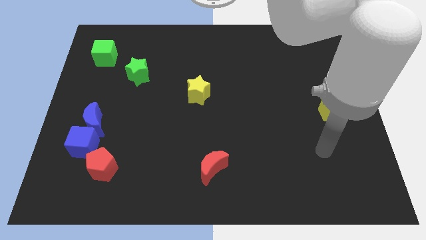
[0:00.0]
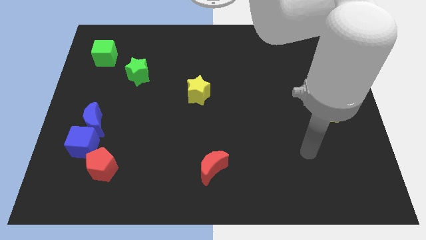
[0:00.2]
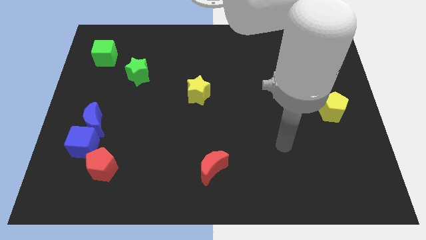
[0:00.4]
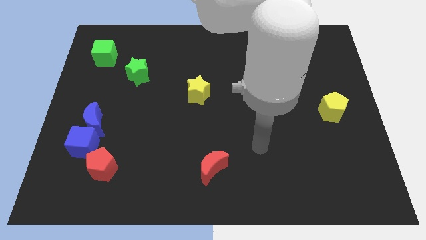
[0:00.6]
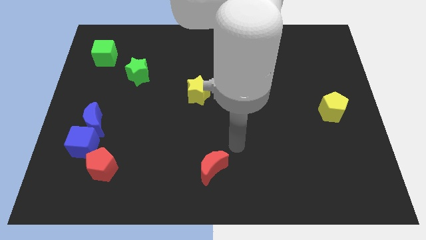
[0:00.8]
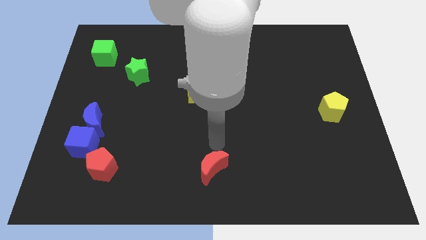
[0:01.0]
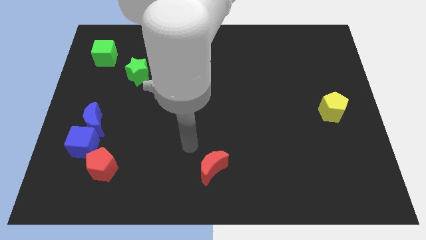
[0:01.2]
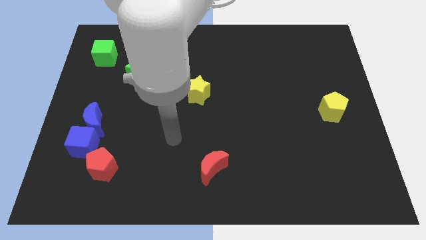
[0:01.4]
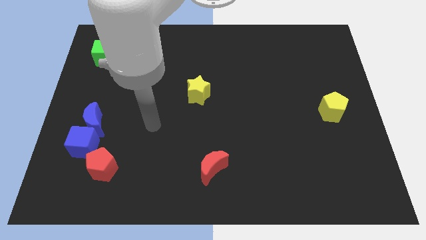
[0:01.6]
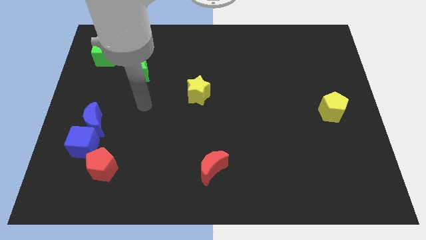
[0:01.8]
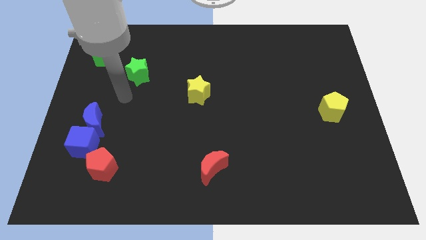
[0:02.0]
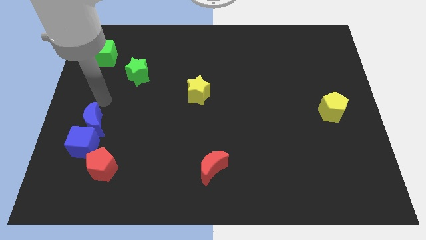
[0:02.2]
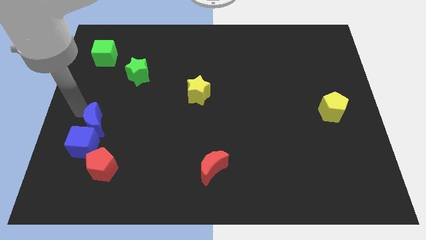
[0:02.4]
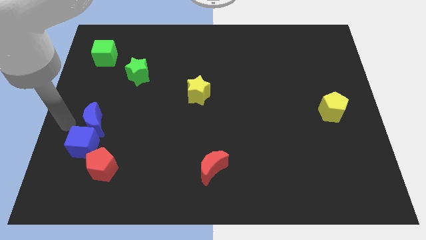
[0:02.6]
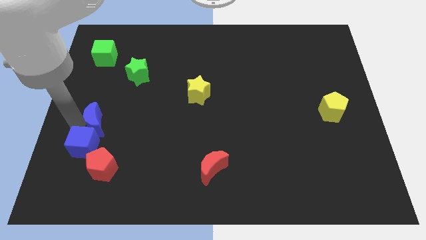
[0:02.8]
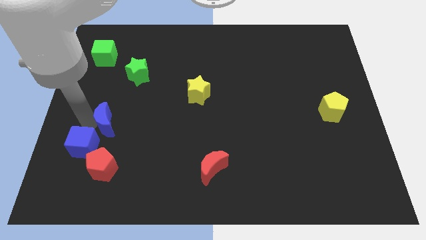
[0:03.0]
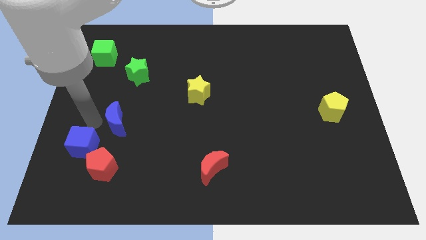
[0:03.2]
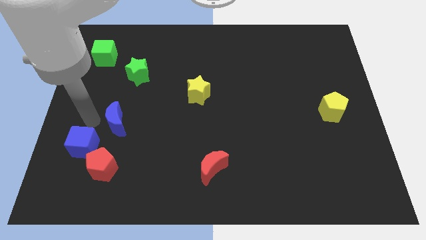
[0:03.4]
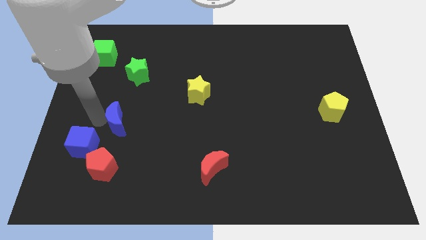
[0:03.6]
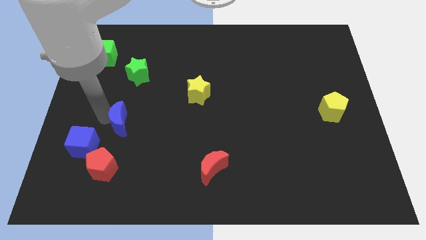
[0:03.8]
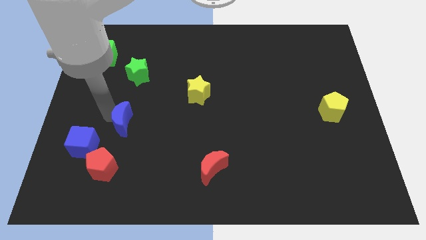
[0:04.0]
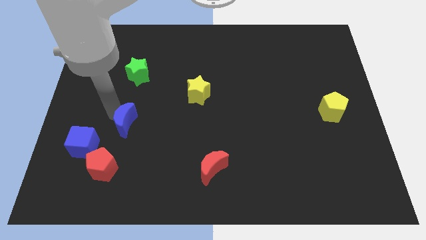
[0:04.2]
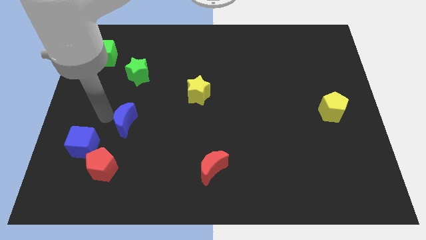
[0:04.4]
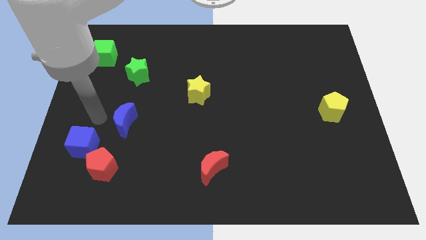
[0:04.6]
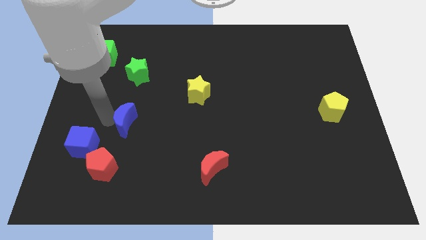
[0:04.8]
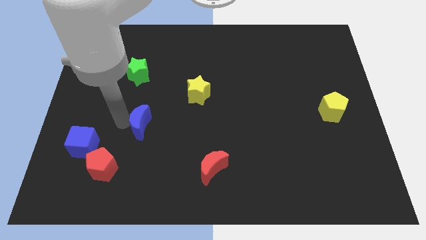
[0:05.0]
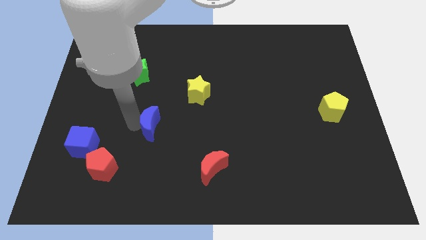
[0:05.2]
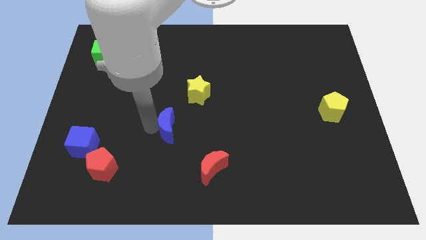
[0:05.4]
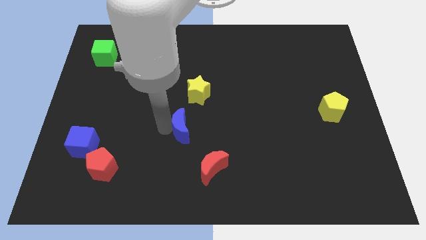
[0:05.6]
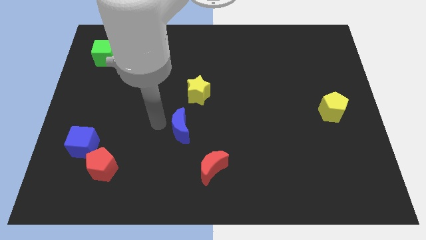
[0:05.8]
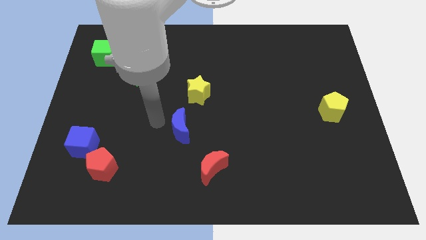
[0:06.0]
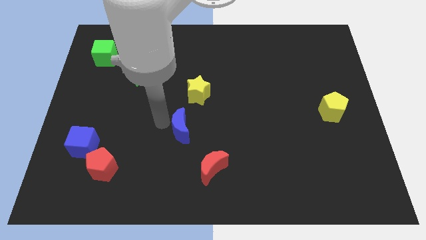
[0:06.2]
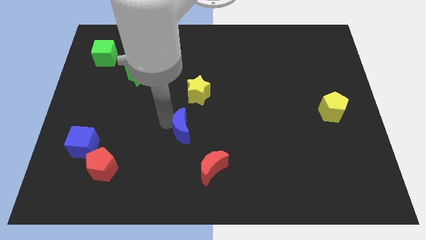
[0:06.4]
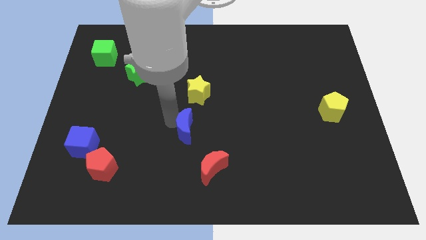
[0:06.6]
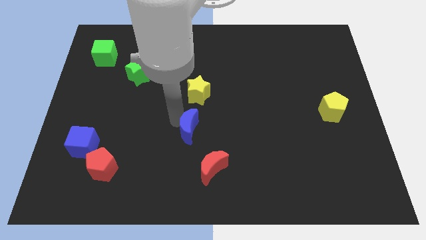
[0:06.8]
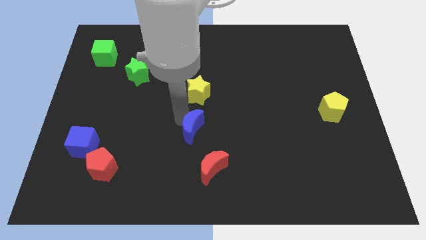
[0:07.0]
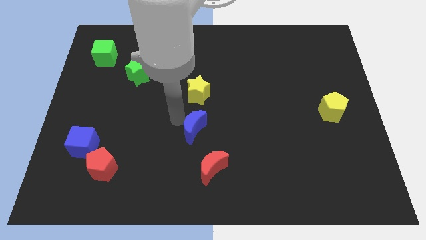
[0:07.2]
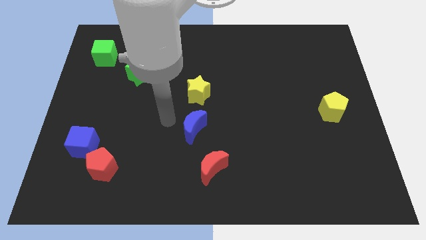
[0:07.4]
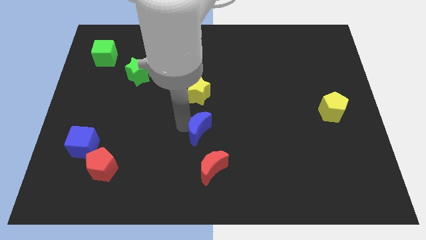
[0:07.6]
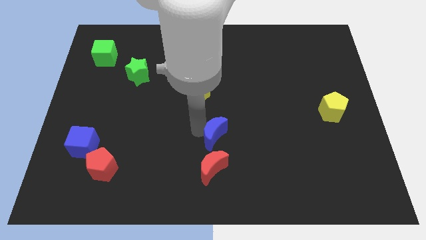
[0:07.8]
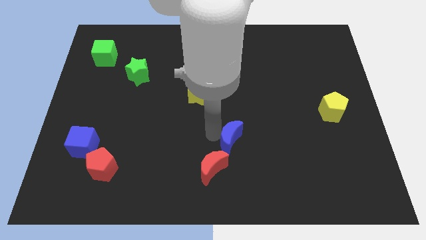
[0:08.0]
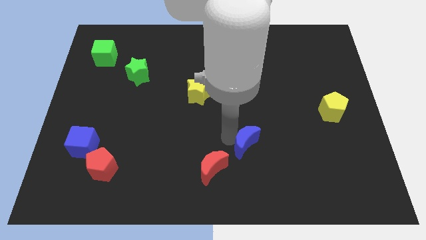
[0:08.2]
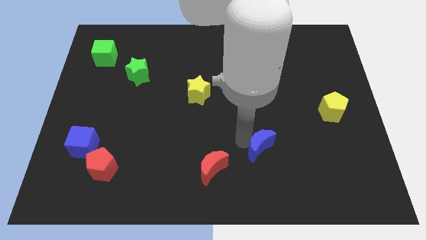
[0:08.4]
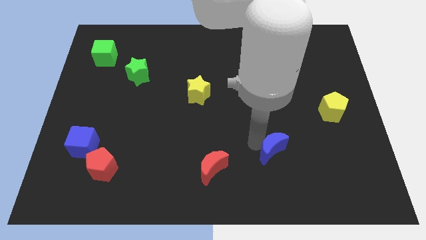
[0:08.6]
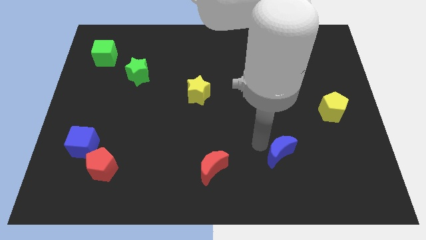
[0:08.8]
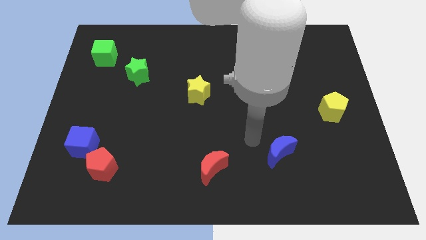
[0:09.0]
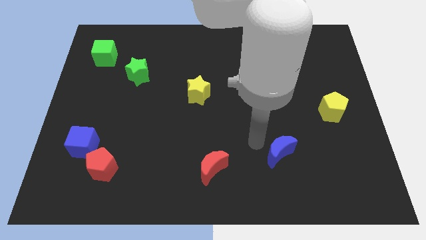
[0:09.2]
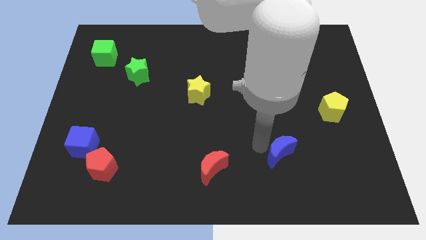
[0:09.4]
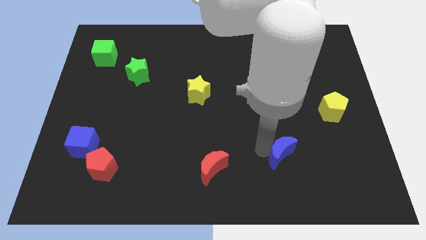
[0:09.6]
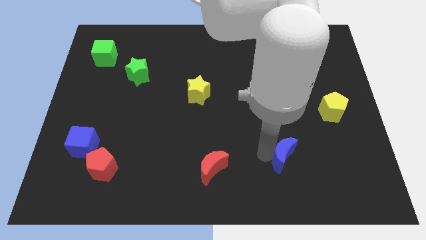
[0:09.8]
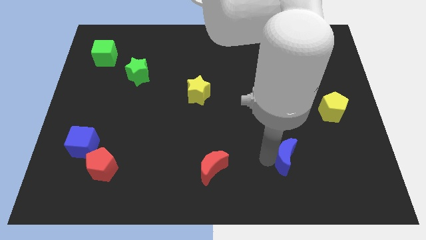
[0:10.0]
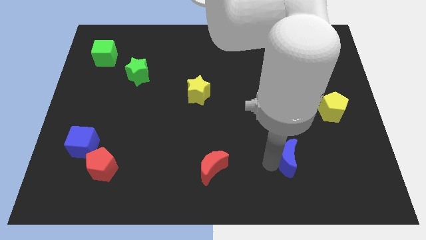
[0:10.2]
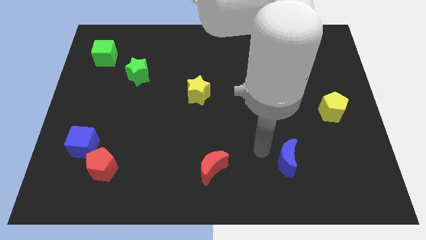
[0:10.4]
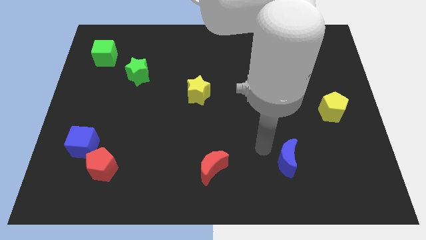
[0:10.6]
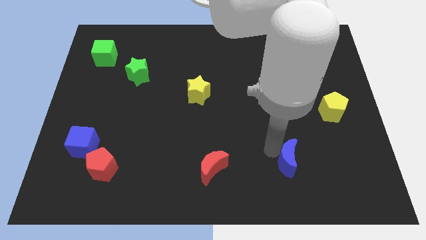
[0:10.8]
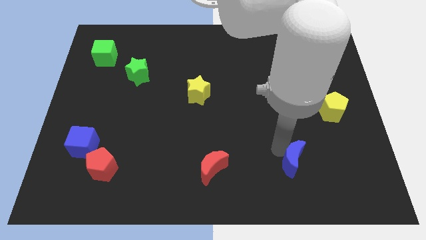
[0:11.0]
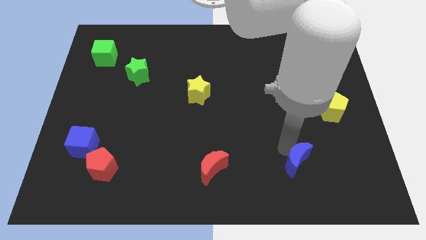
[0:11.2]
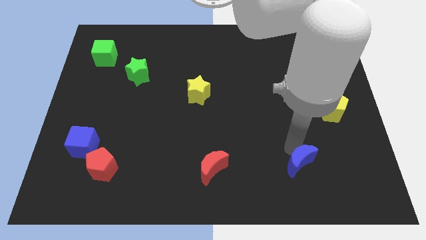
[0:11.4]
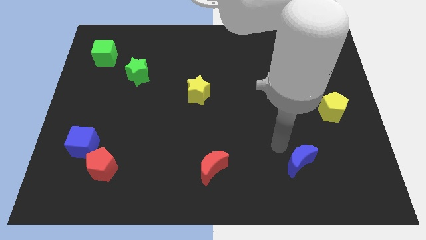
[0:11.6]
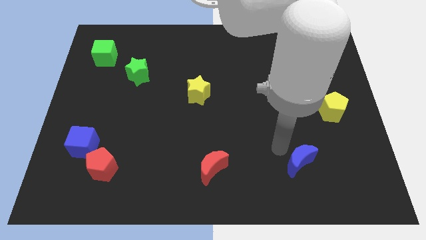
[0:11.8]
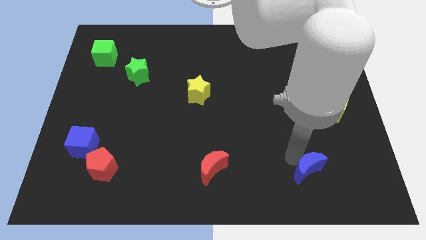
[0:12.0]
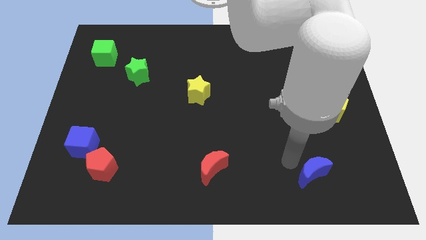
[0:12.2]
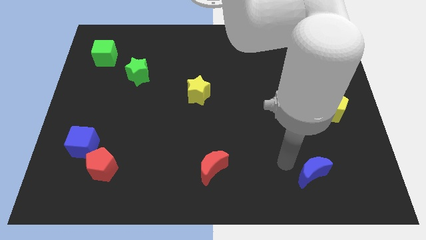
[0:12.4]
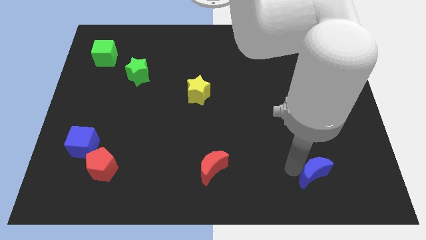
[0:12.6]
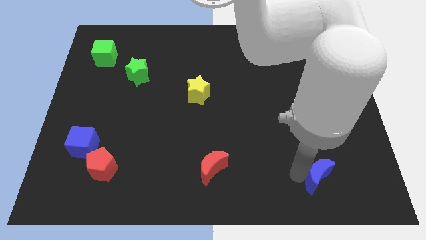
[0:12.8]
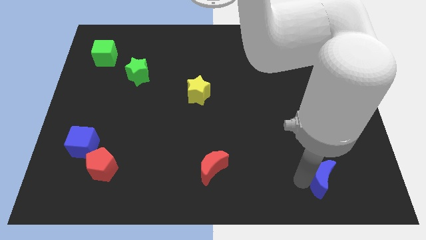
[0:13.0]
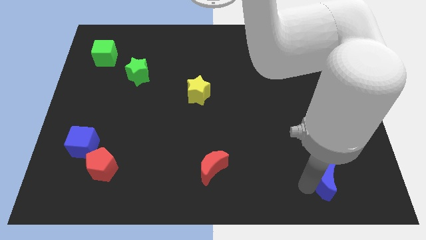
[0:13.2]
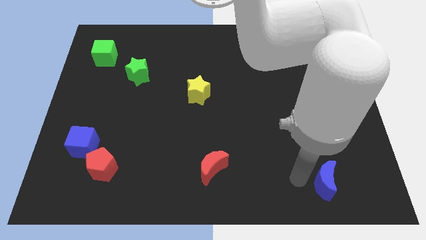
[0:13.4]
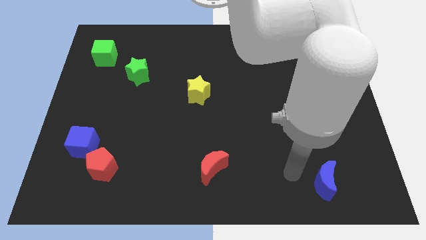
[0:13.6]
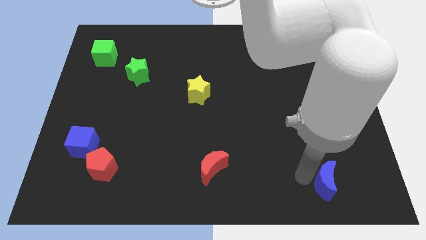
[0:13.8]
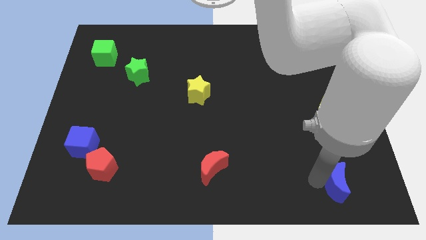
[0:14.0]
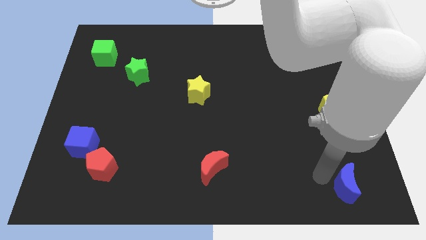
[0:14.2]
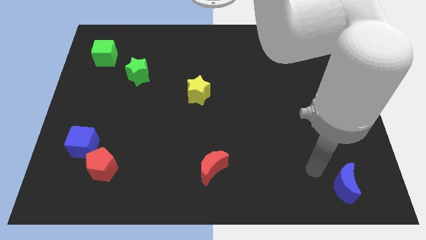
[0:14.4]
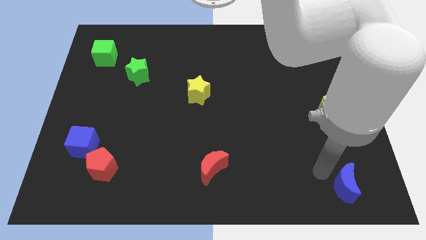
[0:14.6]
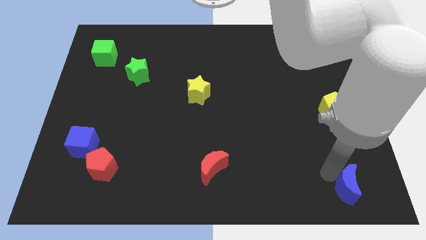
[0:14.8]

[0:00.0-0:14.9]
put the blue moon to the bottom right corner
